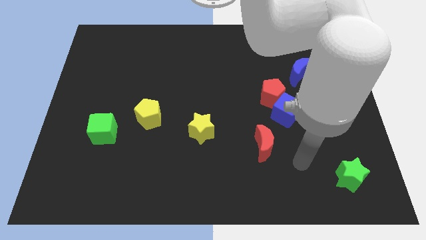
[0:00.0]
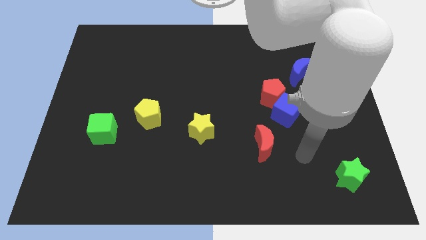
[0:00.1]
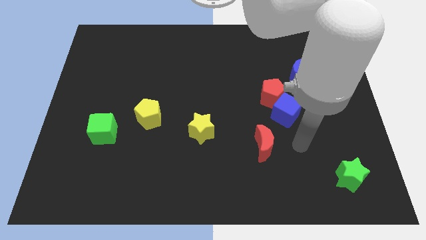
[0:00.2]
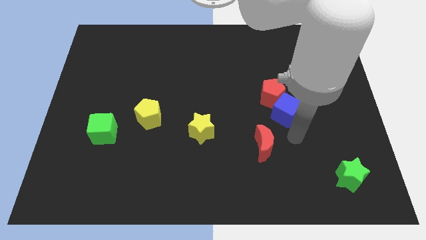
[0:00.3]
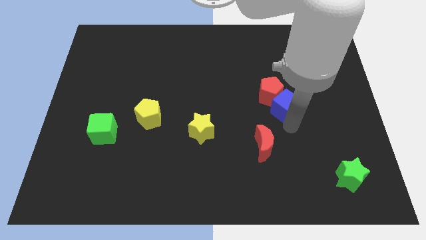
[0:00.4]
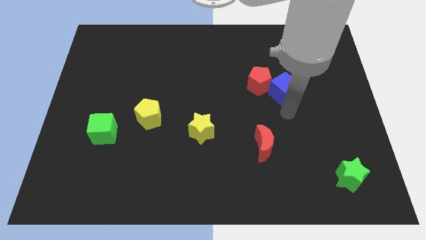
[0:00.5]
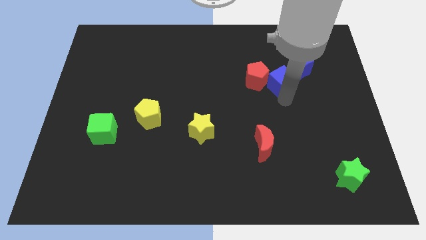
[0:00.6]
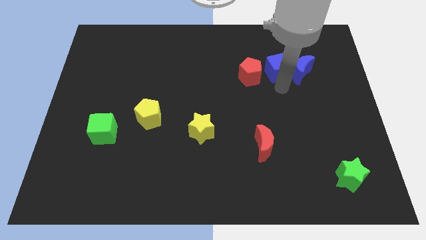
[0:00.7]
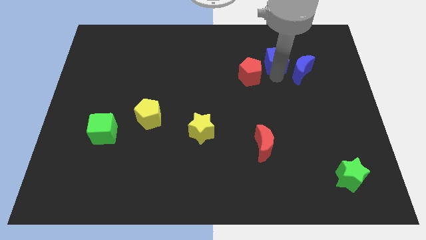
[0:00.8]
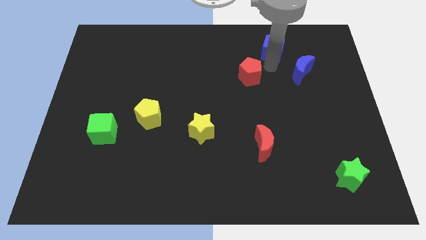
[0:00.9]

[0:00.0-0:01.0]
move the red pentagon away from the blue cube

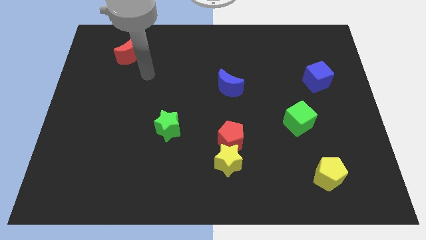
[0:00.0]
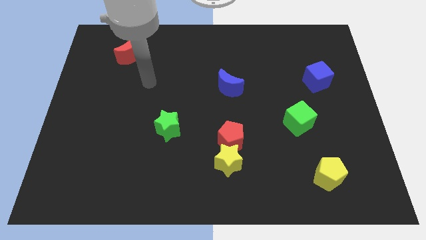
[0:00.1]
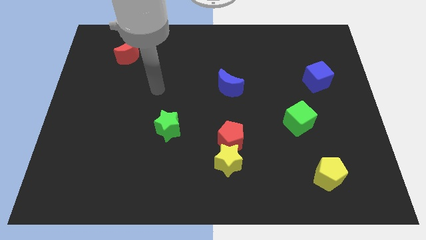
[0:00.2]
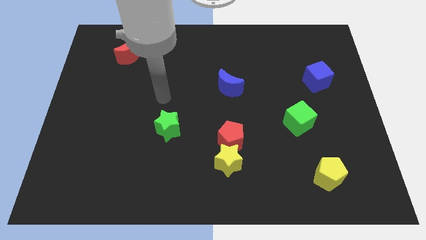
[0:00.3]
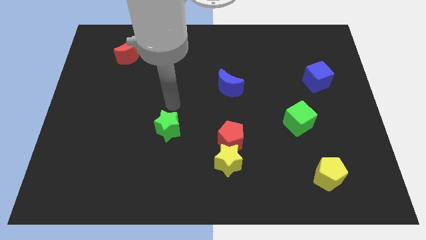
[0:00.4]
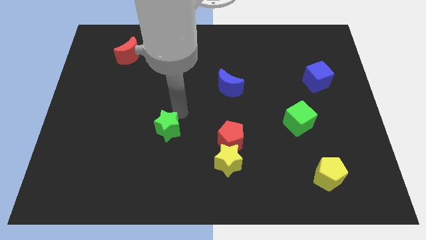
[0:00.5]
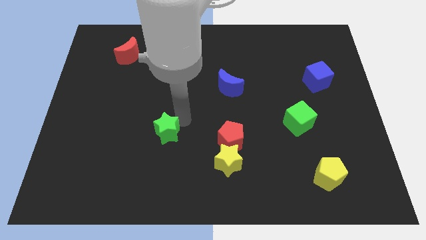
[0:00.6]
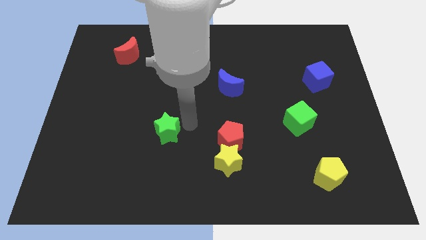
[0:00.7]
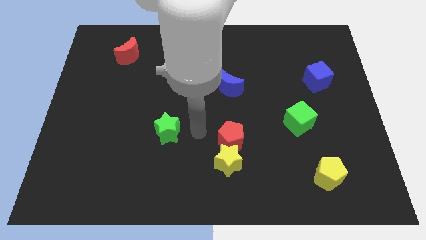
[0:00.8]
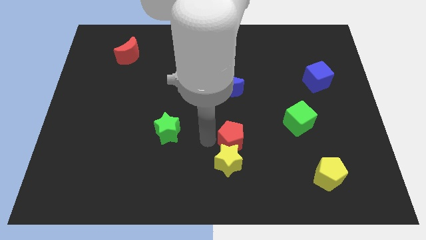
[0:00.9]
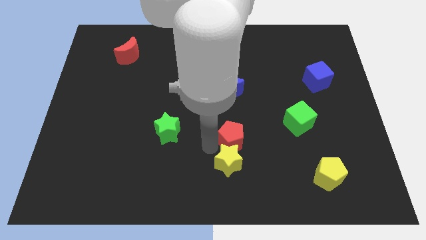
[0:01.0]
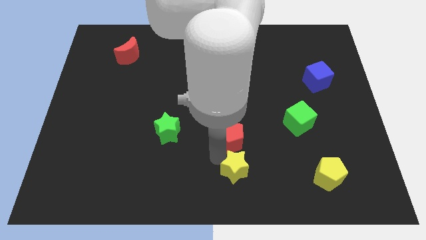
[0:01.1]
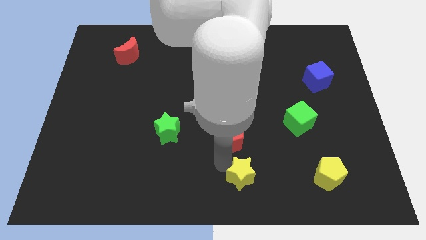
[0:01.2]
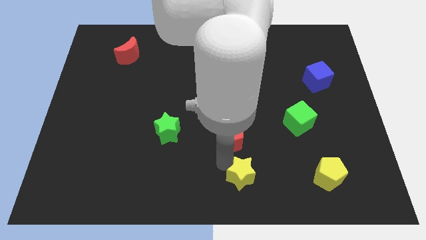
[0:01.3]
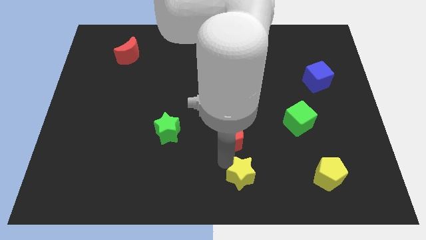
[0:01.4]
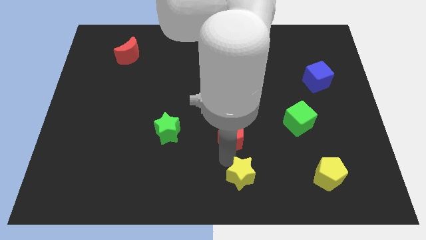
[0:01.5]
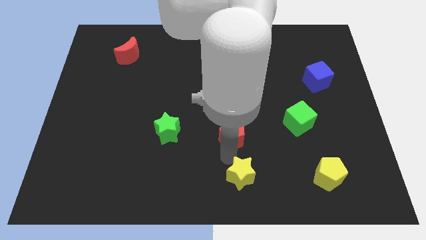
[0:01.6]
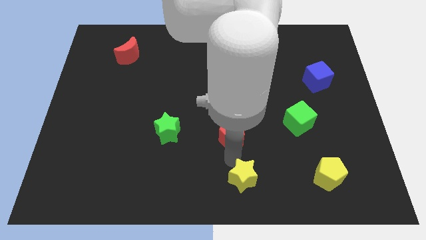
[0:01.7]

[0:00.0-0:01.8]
move the red pentagon away from the yellow star

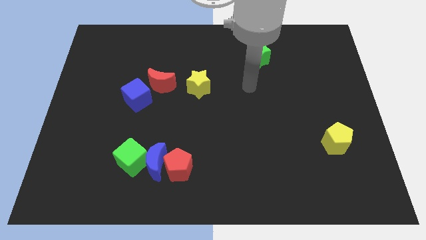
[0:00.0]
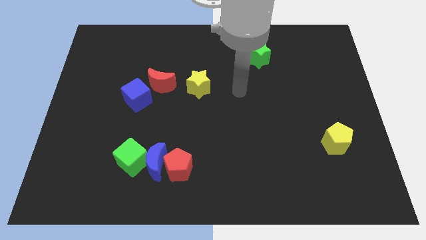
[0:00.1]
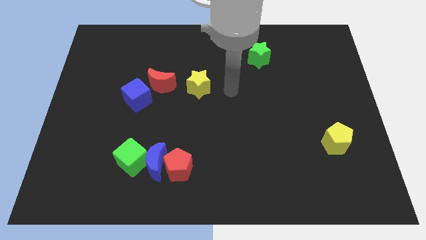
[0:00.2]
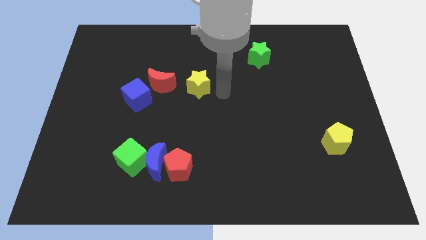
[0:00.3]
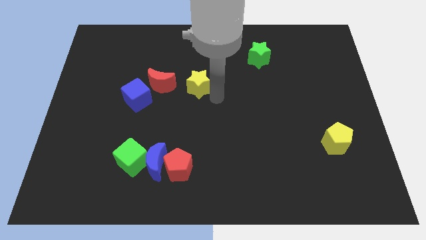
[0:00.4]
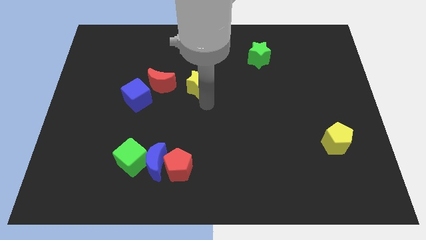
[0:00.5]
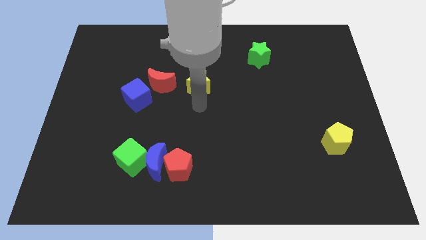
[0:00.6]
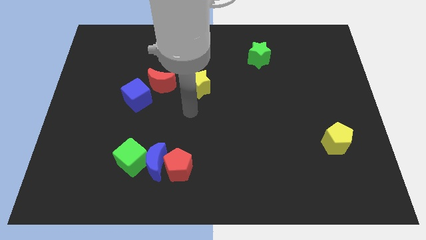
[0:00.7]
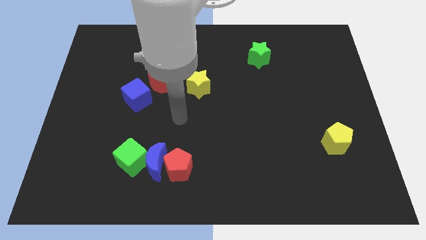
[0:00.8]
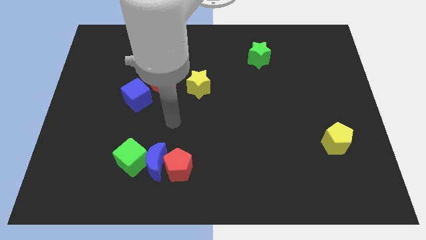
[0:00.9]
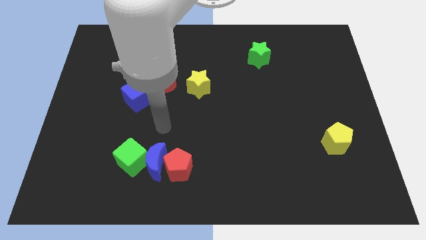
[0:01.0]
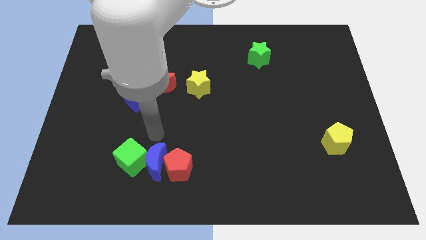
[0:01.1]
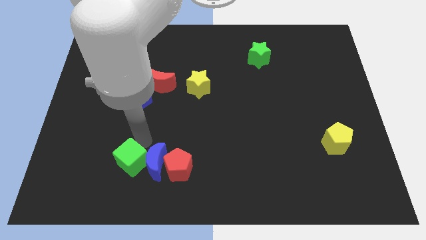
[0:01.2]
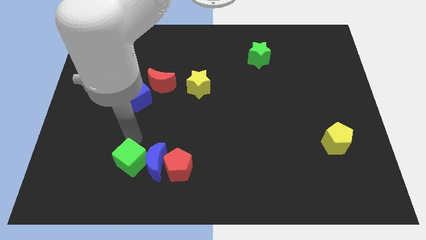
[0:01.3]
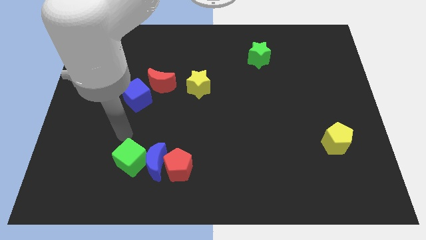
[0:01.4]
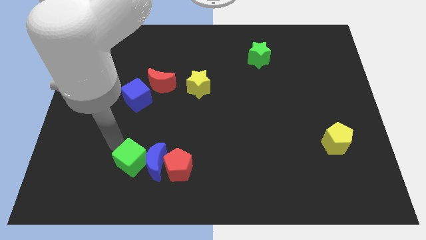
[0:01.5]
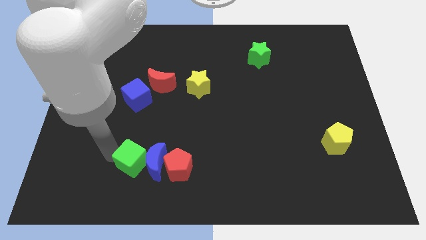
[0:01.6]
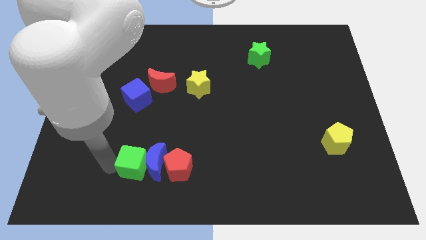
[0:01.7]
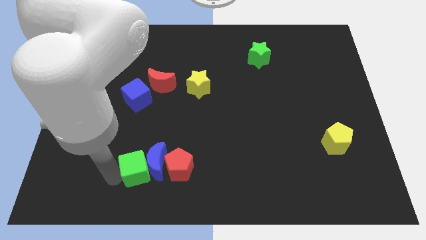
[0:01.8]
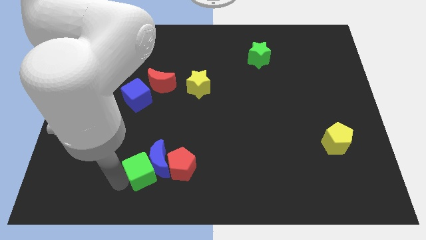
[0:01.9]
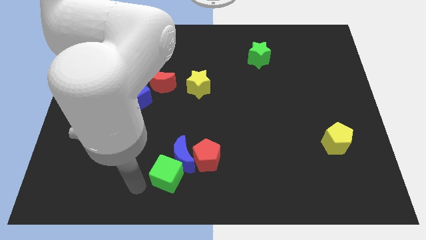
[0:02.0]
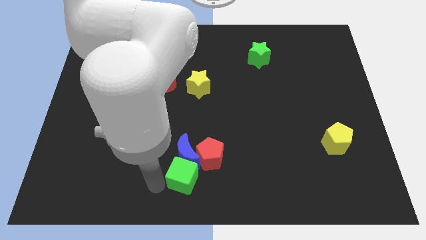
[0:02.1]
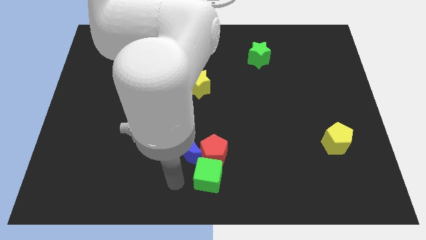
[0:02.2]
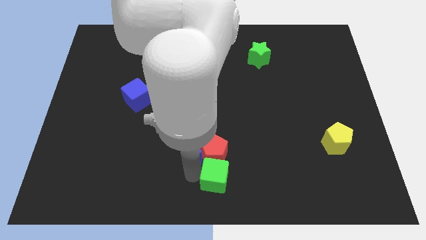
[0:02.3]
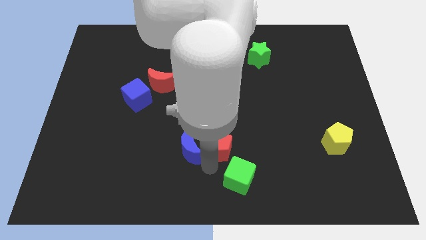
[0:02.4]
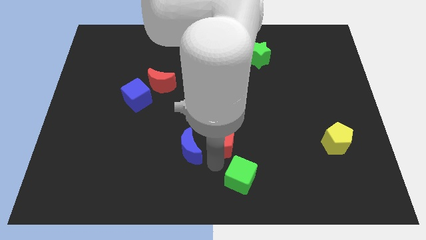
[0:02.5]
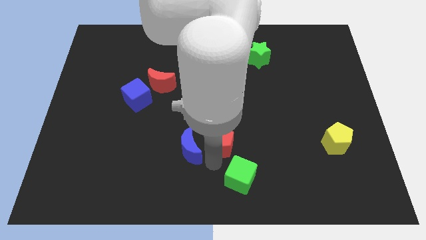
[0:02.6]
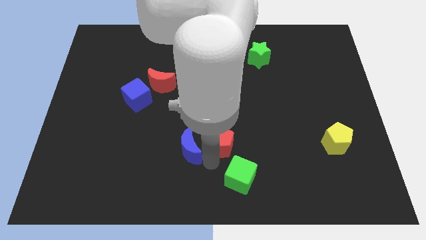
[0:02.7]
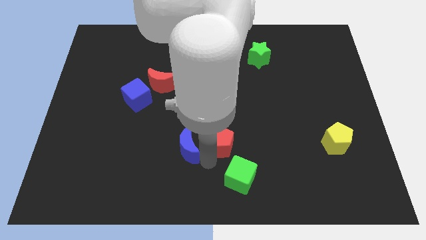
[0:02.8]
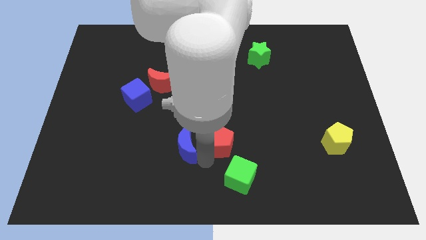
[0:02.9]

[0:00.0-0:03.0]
pull the blue moon apart from the red pentagon and green cube

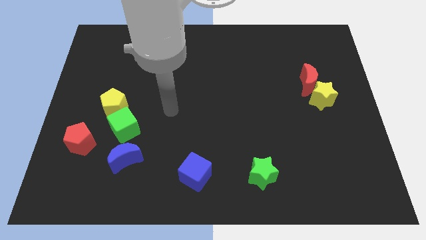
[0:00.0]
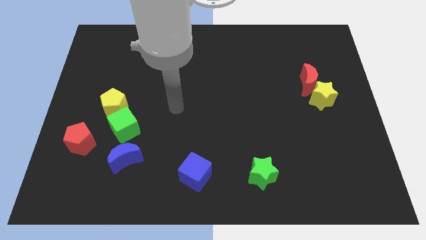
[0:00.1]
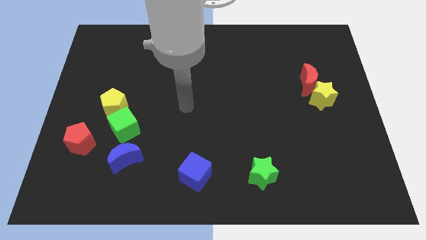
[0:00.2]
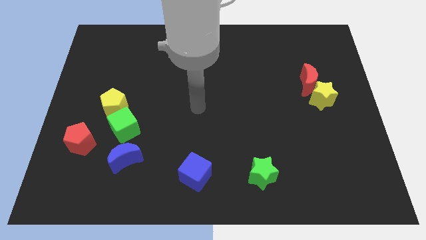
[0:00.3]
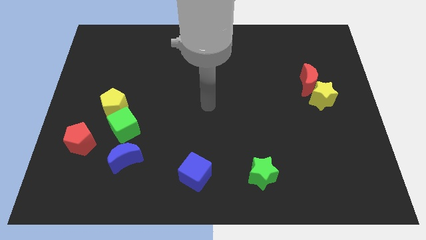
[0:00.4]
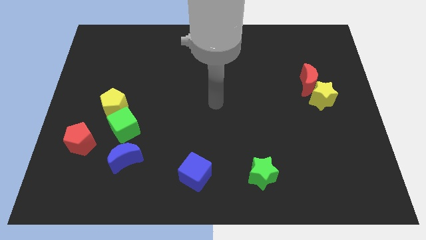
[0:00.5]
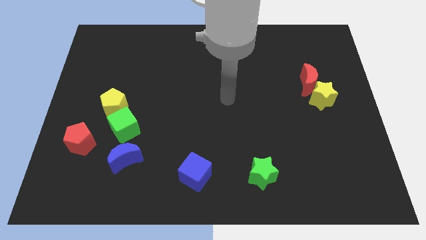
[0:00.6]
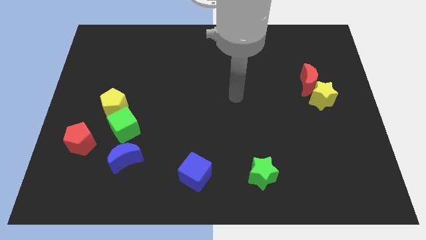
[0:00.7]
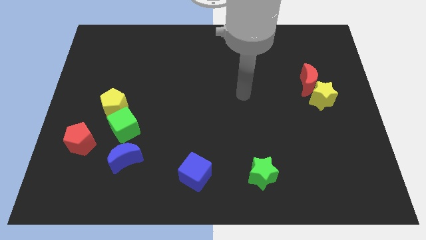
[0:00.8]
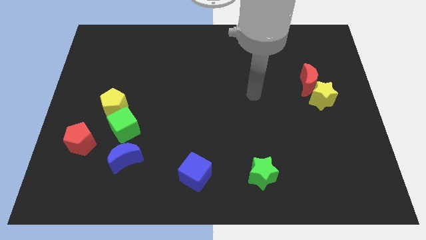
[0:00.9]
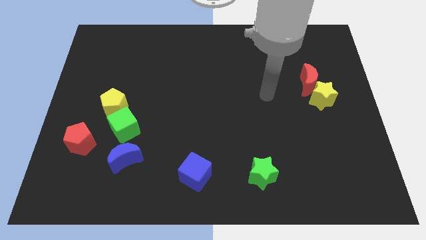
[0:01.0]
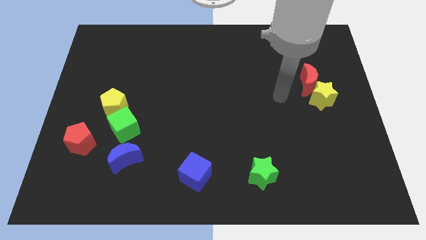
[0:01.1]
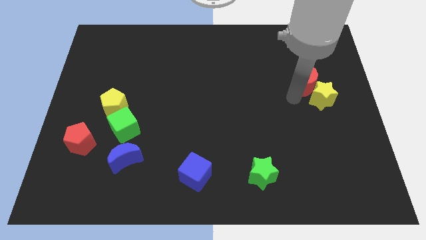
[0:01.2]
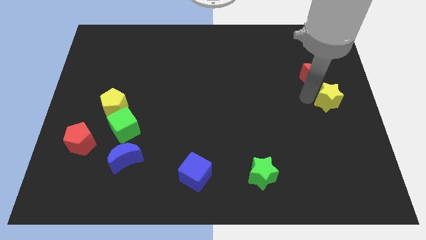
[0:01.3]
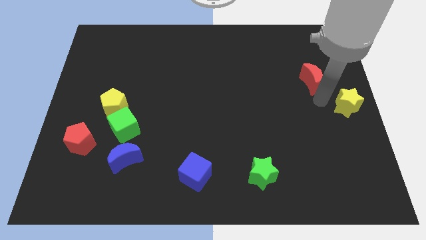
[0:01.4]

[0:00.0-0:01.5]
pull the red moon apart from the yellow star

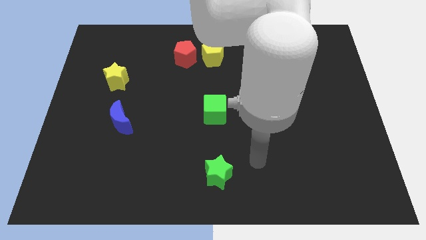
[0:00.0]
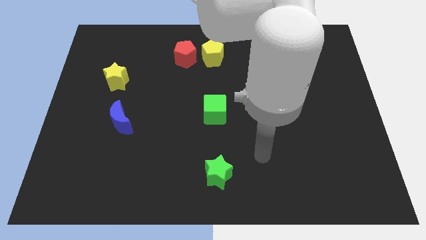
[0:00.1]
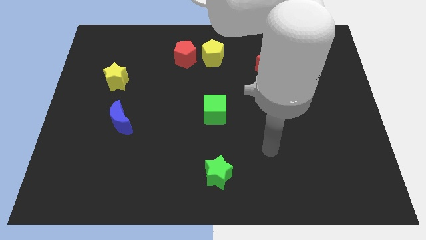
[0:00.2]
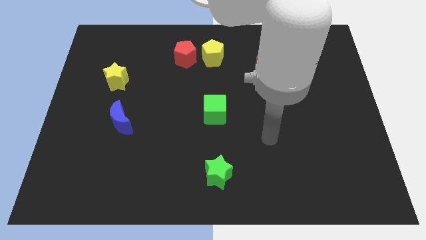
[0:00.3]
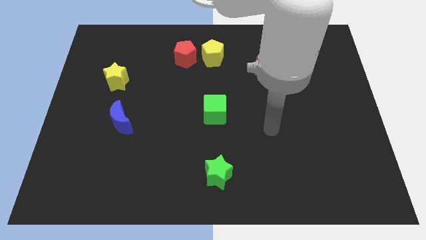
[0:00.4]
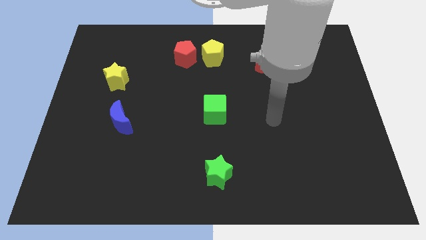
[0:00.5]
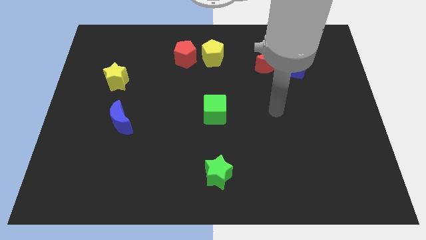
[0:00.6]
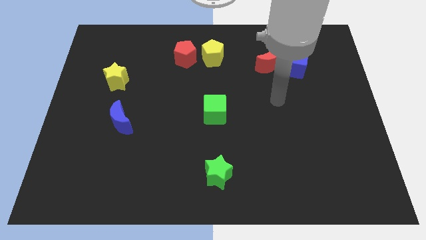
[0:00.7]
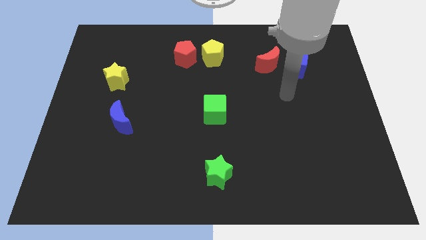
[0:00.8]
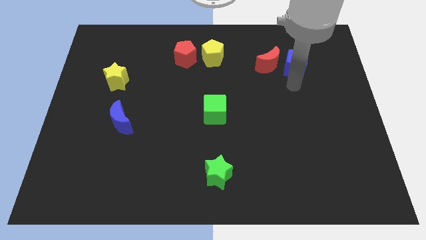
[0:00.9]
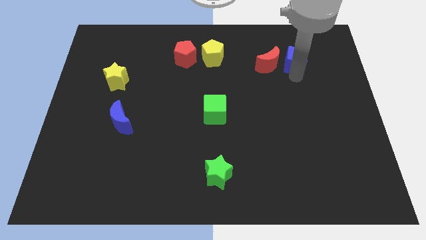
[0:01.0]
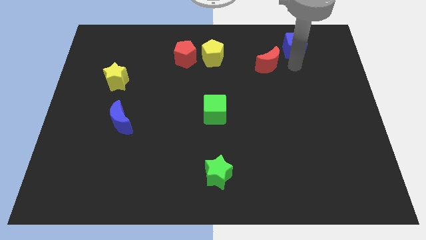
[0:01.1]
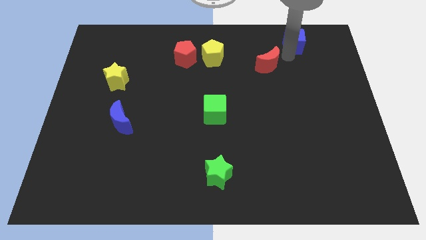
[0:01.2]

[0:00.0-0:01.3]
separate the red moon from the blue cube

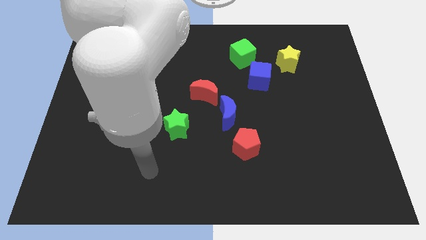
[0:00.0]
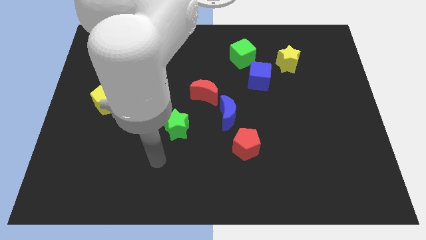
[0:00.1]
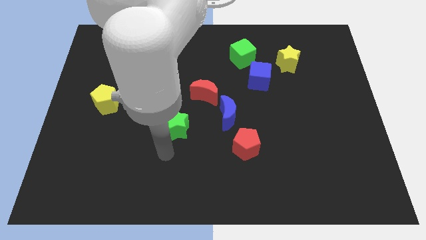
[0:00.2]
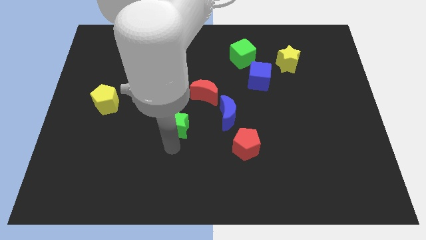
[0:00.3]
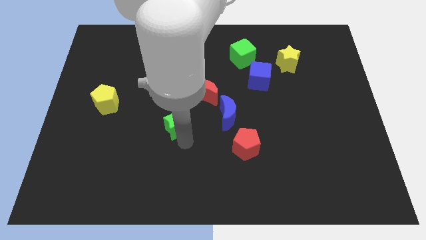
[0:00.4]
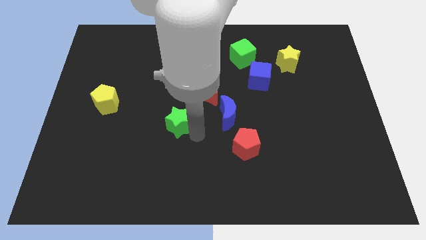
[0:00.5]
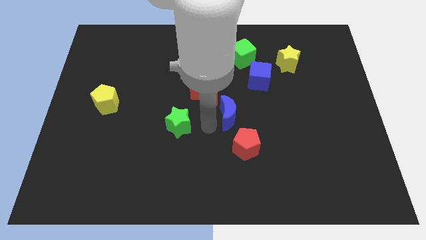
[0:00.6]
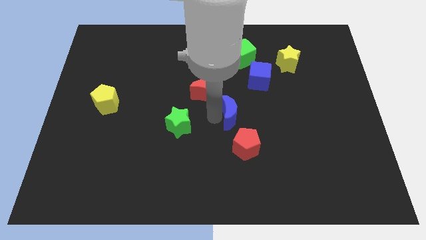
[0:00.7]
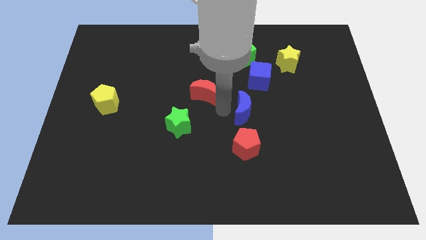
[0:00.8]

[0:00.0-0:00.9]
move the red moon away from the blue moon
